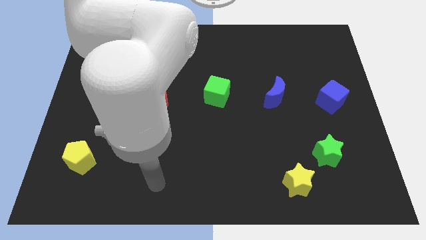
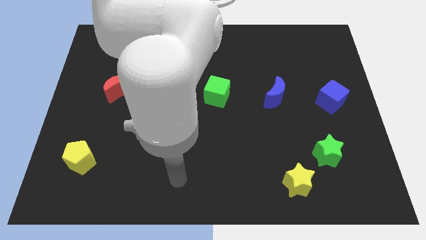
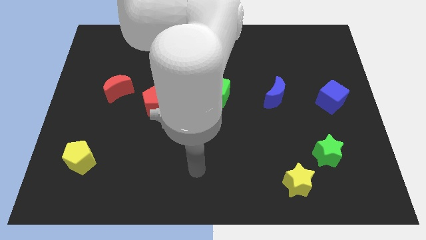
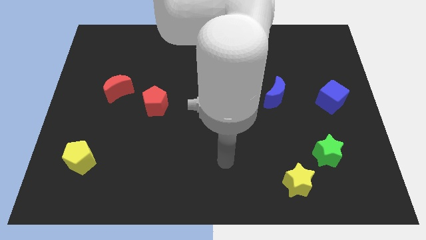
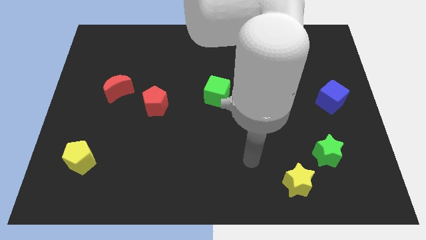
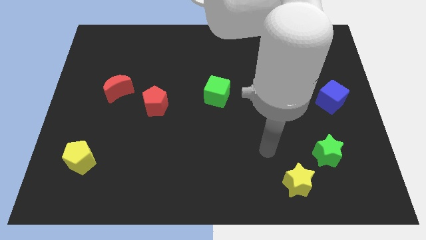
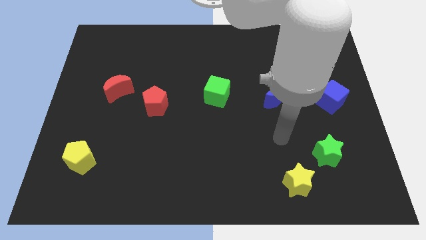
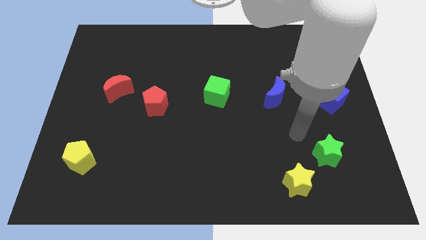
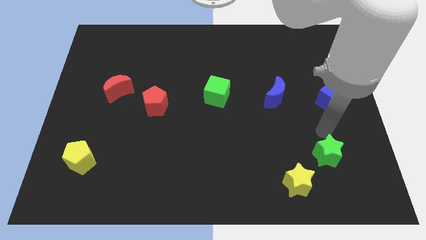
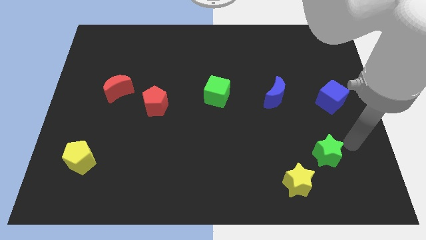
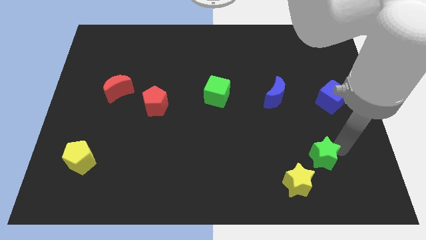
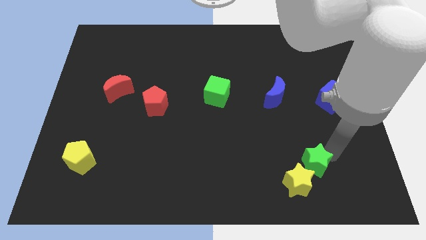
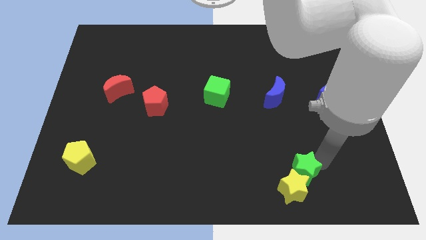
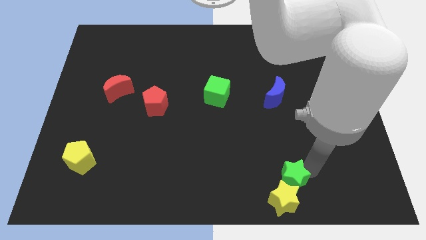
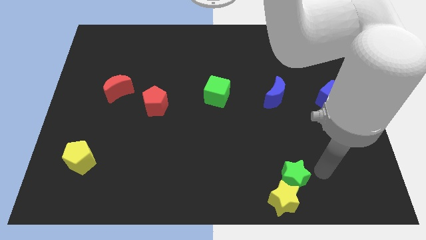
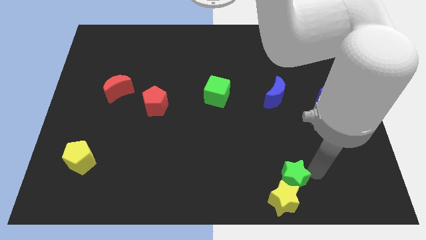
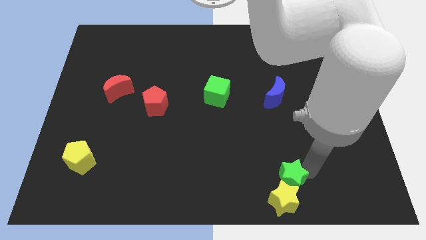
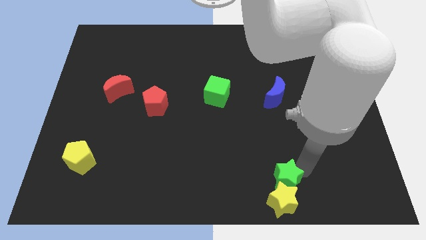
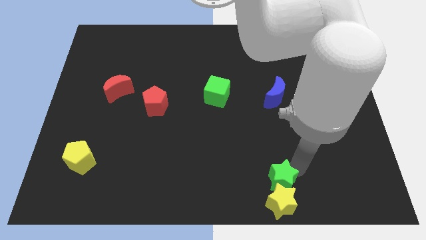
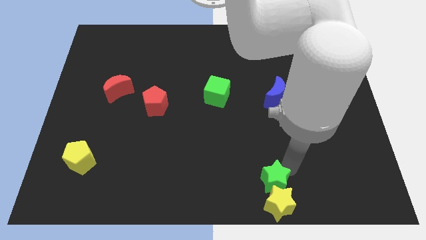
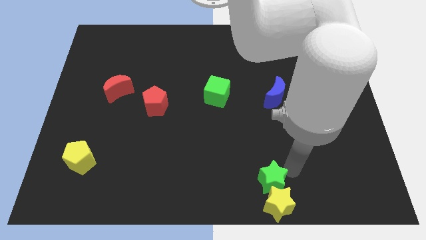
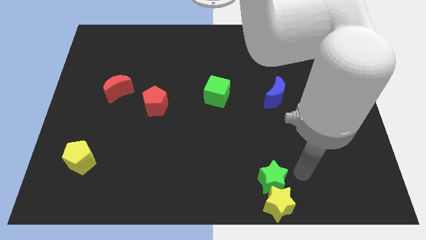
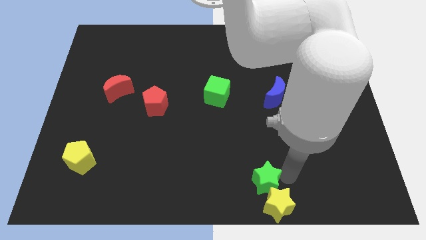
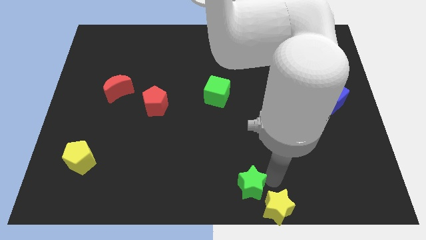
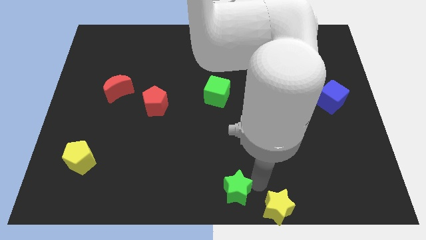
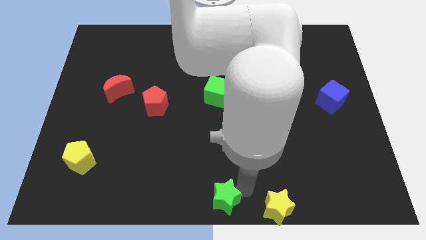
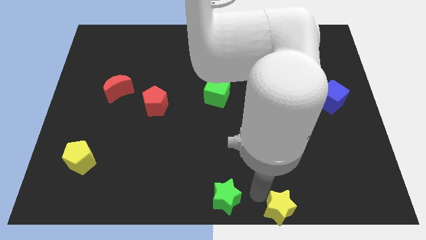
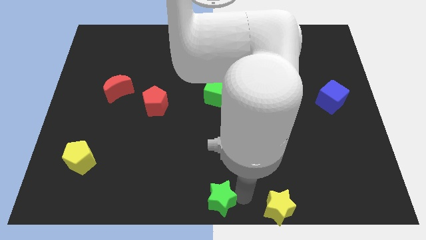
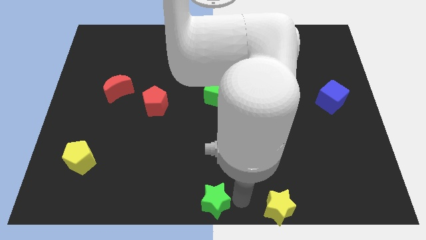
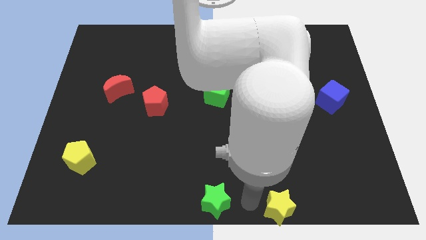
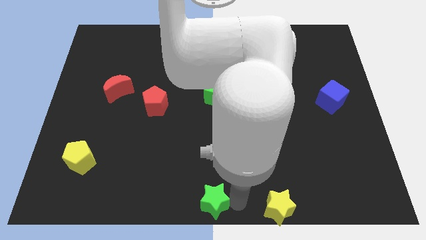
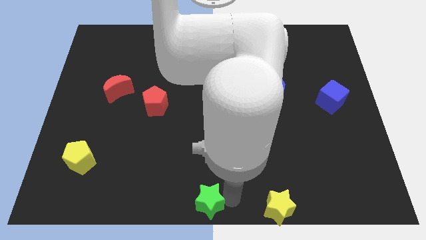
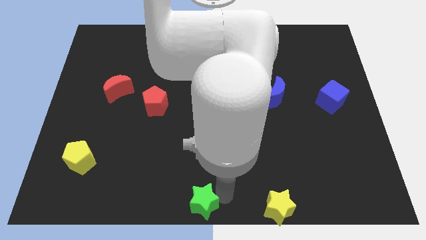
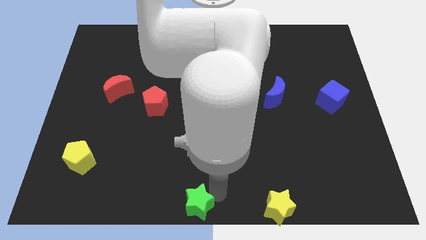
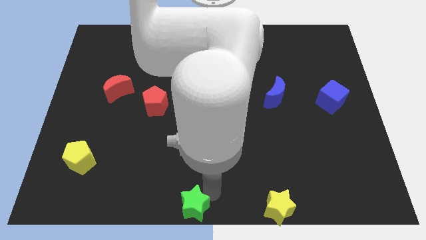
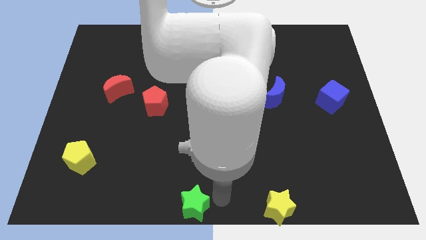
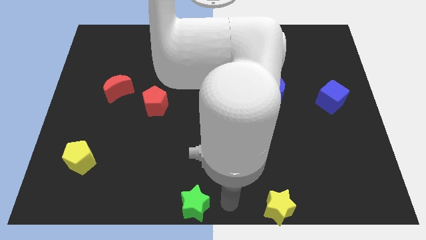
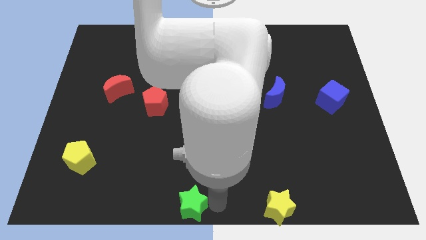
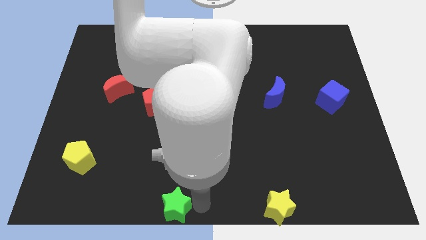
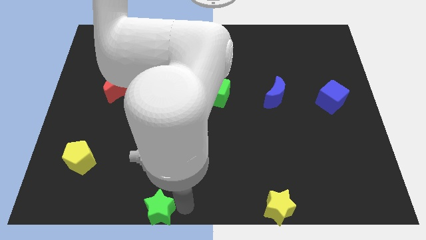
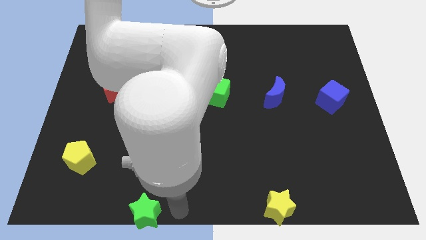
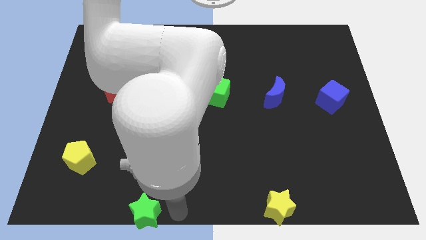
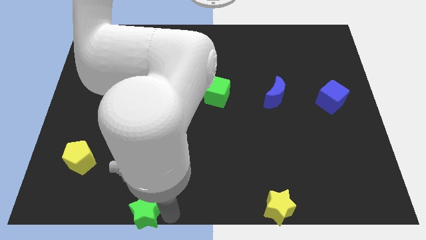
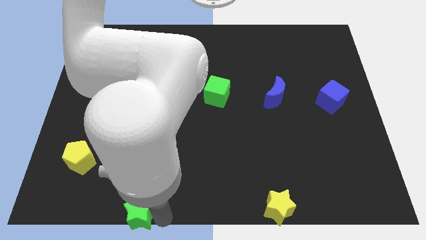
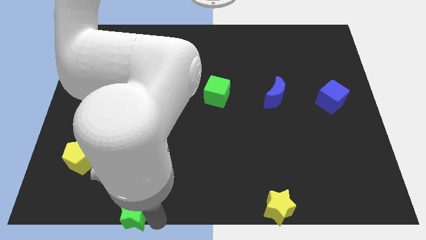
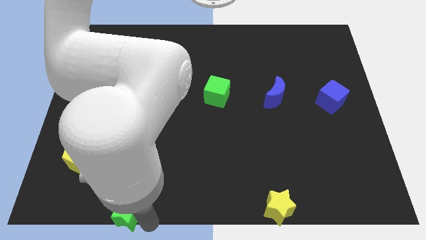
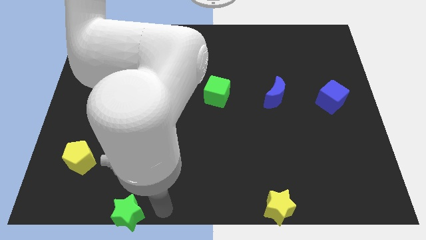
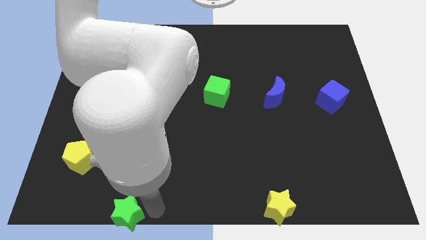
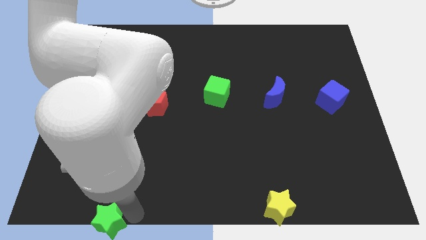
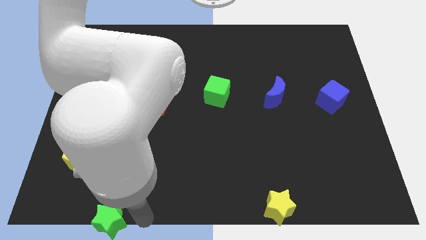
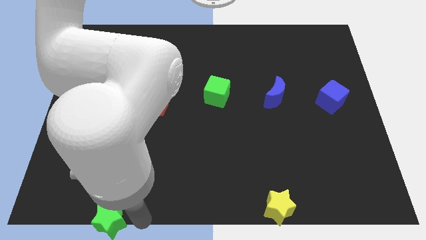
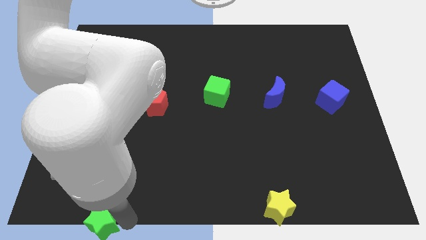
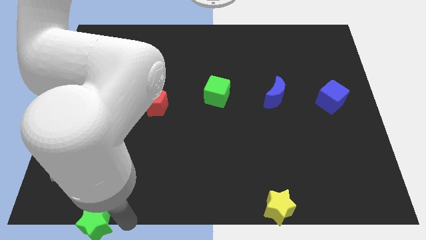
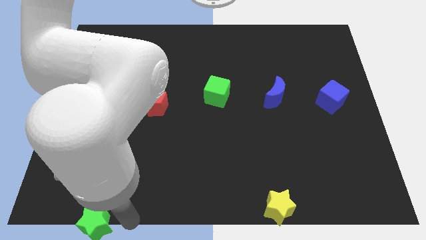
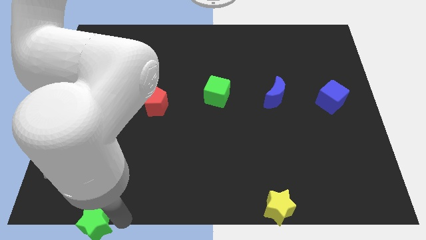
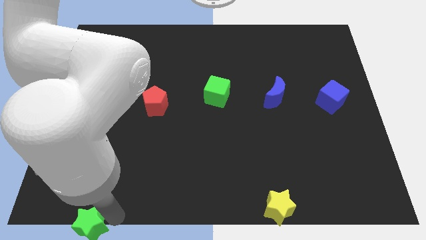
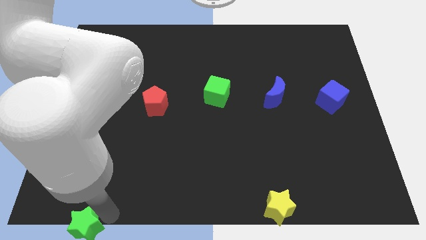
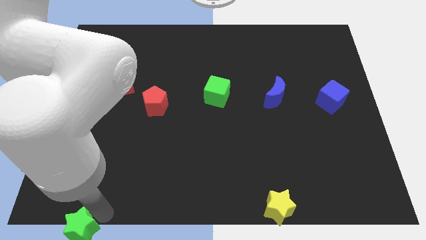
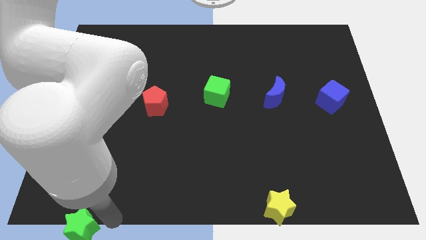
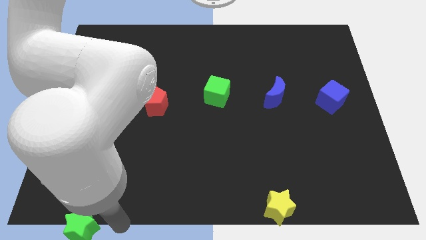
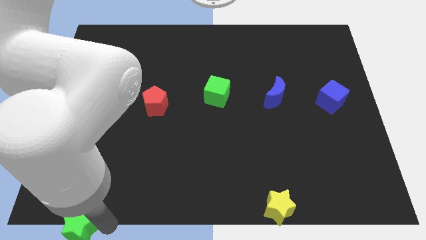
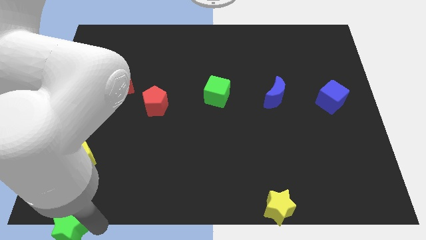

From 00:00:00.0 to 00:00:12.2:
move the green star to the bottom left corner
